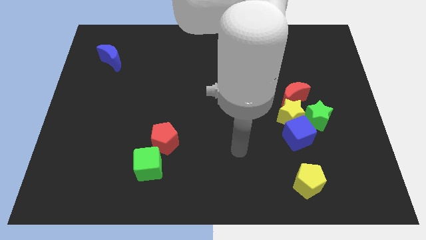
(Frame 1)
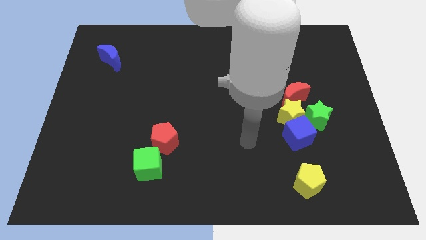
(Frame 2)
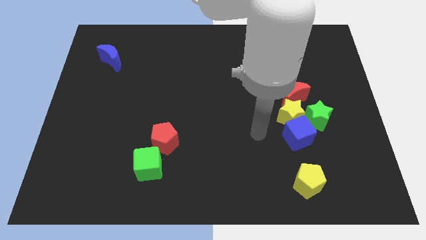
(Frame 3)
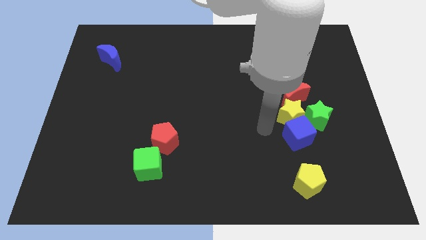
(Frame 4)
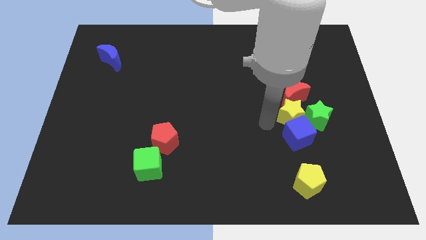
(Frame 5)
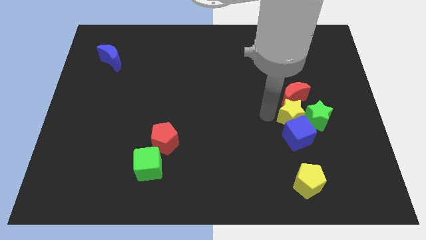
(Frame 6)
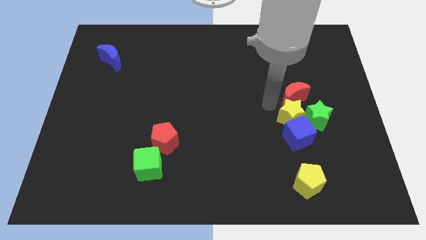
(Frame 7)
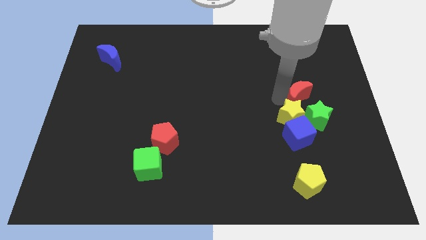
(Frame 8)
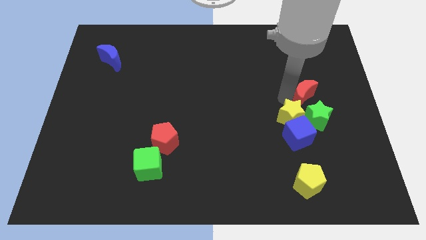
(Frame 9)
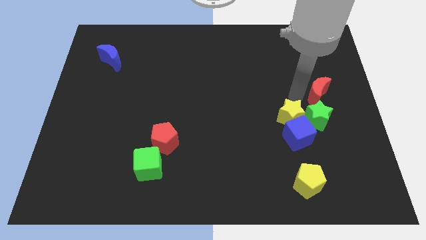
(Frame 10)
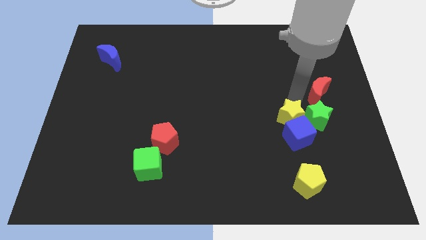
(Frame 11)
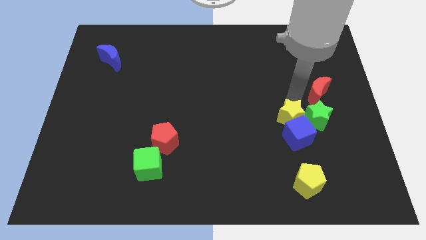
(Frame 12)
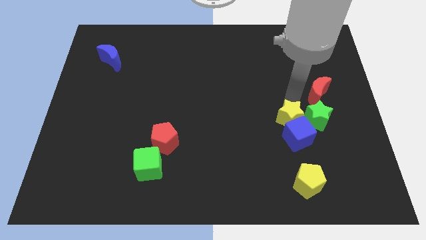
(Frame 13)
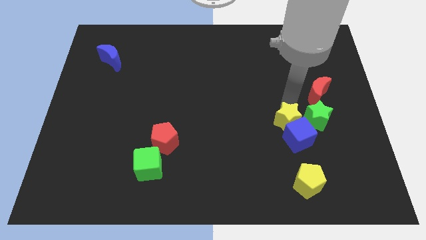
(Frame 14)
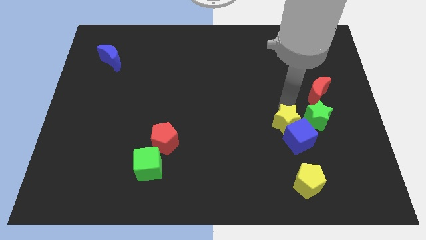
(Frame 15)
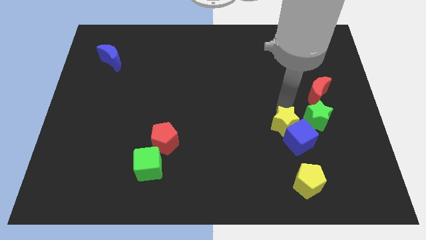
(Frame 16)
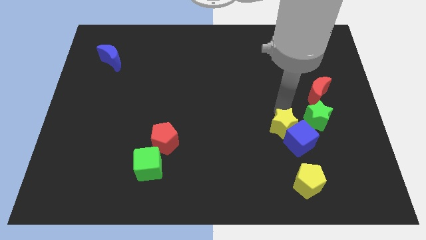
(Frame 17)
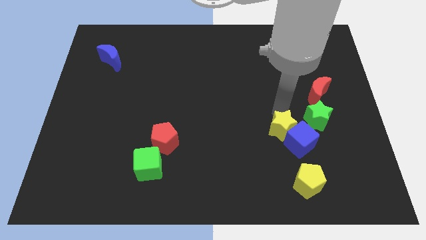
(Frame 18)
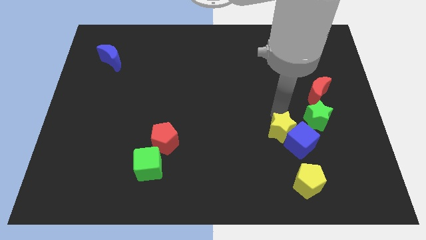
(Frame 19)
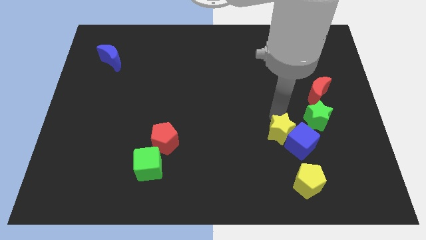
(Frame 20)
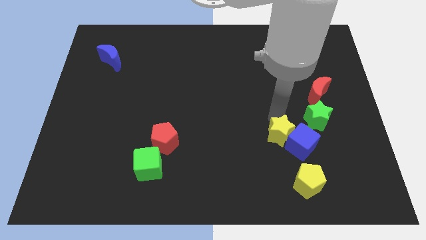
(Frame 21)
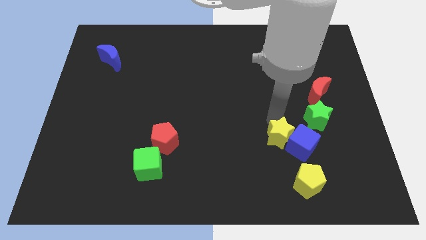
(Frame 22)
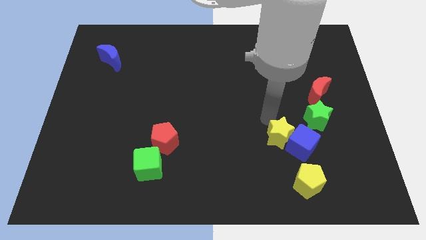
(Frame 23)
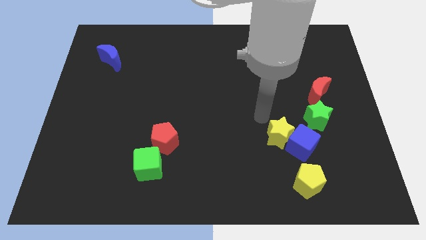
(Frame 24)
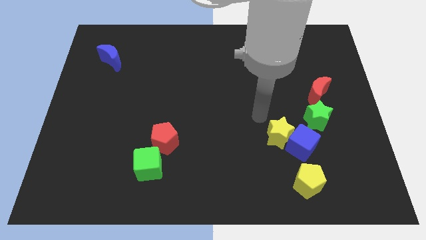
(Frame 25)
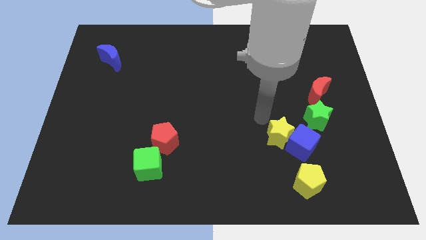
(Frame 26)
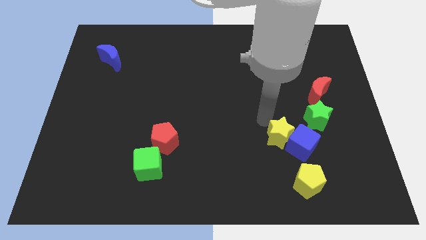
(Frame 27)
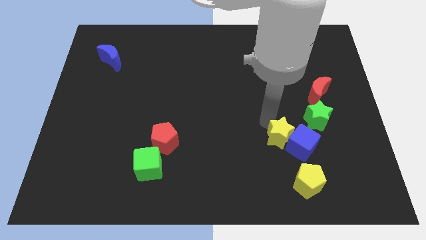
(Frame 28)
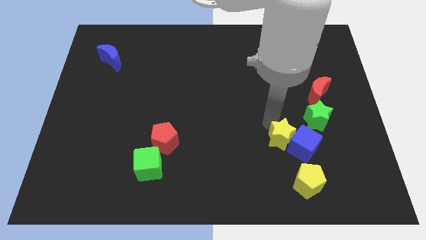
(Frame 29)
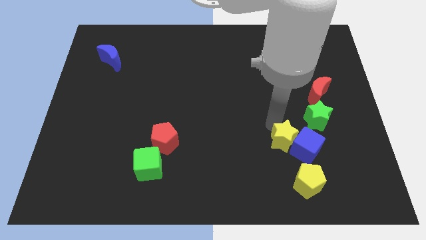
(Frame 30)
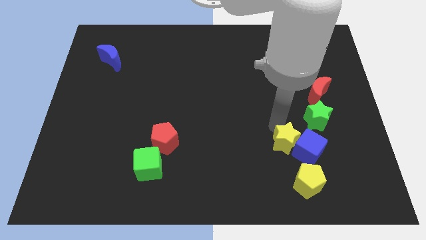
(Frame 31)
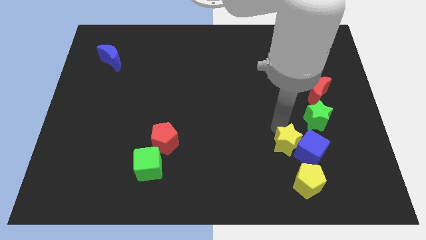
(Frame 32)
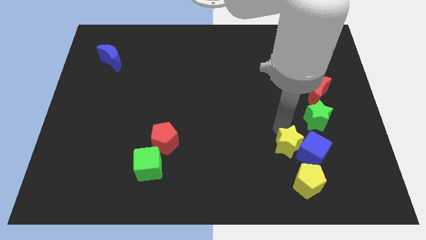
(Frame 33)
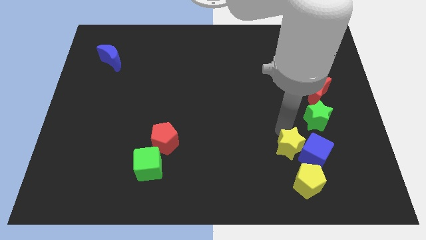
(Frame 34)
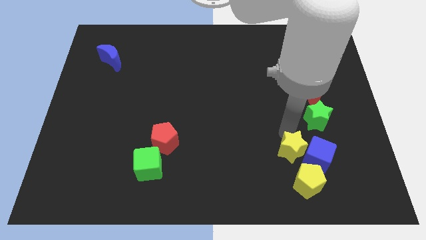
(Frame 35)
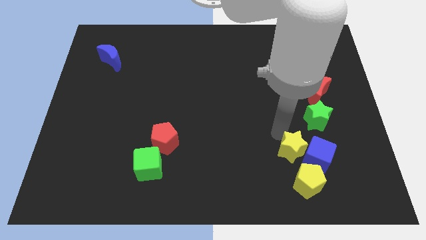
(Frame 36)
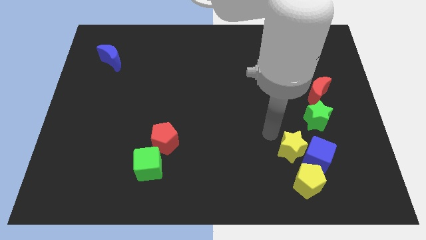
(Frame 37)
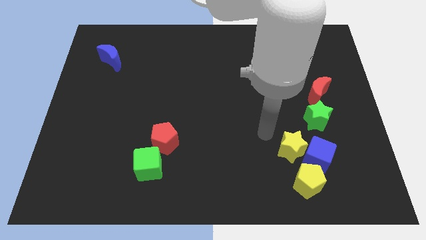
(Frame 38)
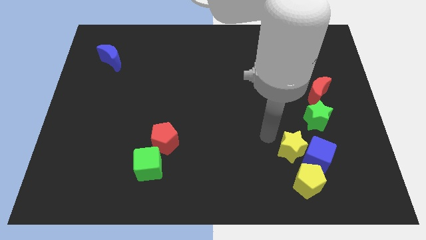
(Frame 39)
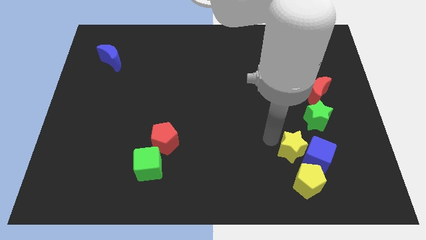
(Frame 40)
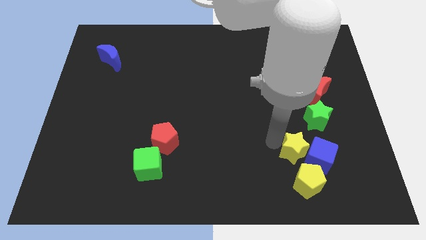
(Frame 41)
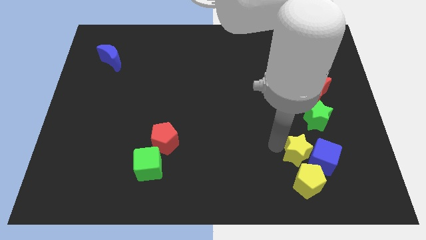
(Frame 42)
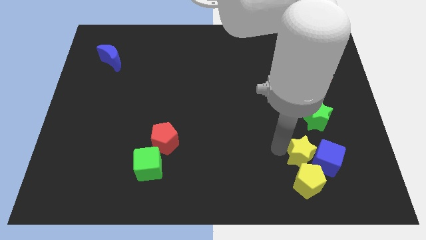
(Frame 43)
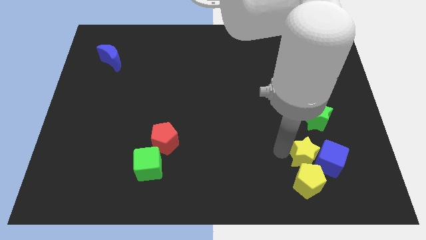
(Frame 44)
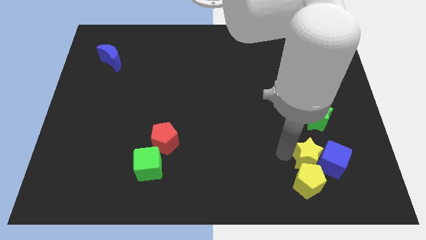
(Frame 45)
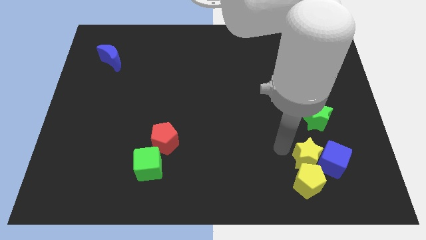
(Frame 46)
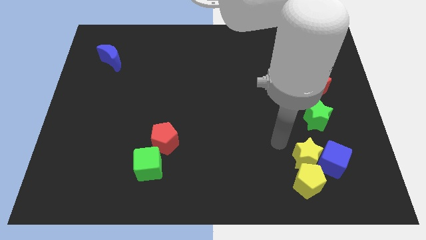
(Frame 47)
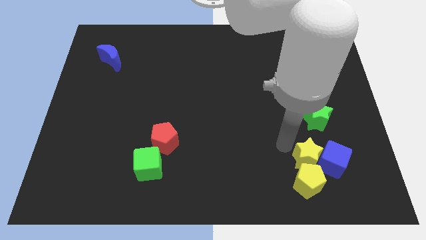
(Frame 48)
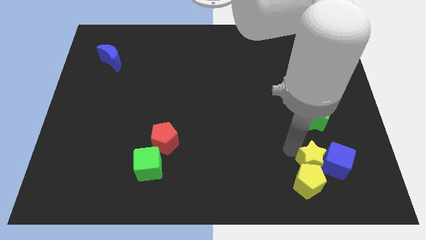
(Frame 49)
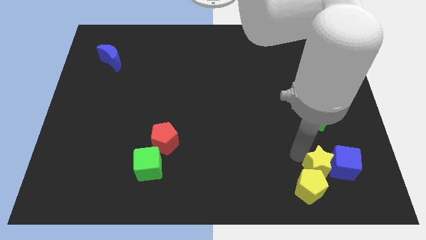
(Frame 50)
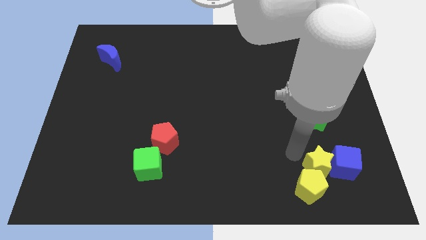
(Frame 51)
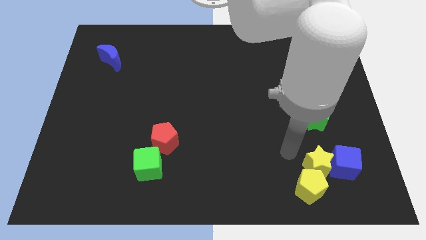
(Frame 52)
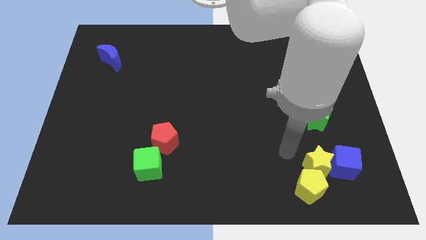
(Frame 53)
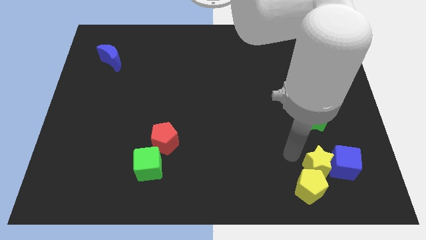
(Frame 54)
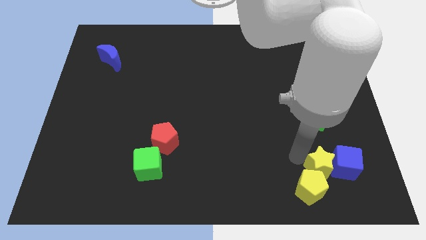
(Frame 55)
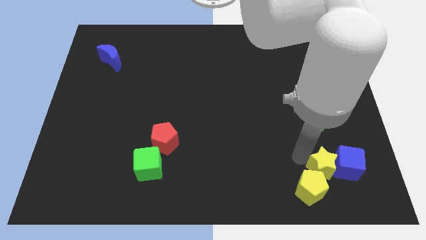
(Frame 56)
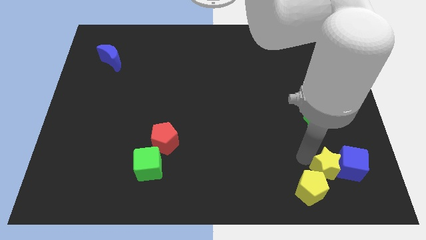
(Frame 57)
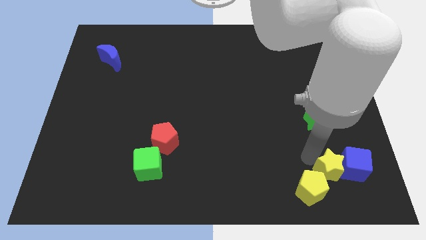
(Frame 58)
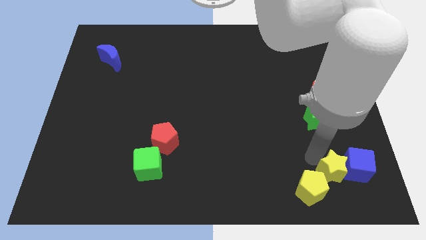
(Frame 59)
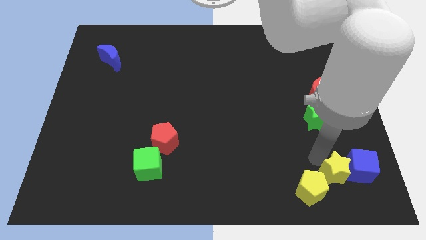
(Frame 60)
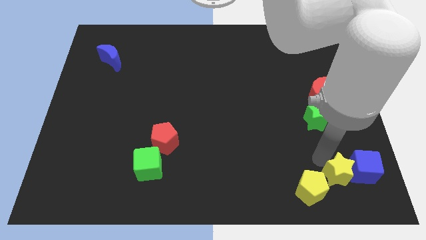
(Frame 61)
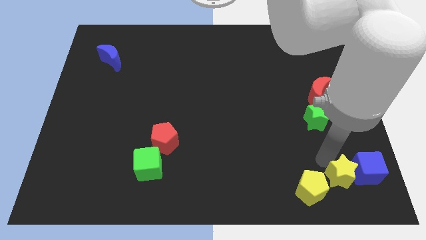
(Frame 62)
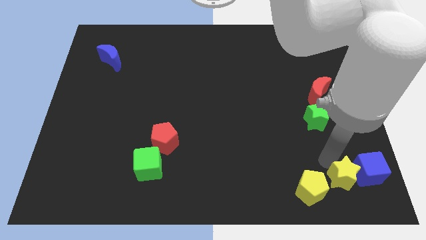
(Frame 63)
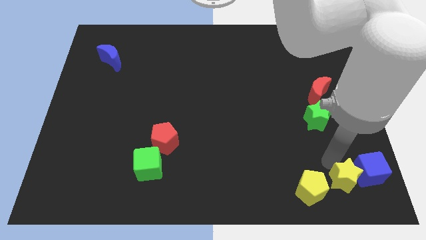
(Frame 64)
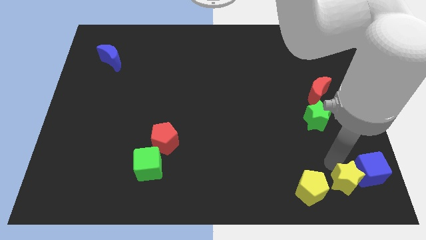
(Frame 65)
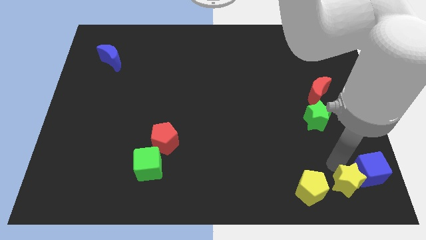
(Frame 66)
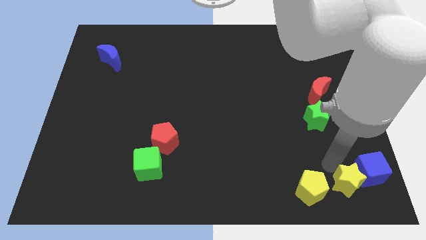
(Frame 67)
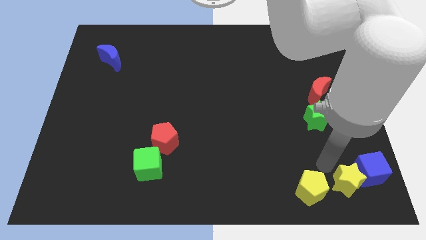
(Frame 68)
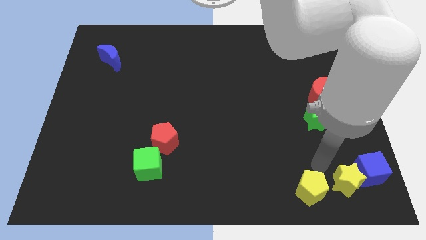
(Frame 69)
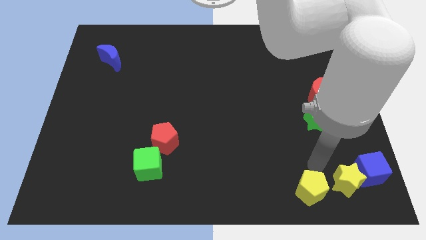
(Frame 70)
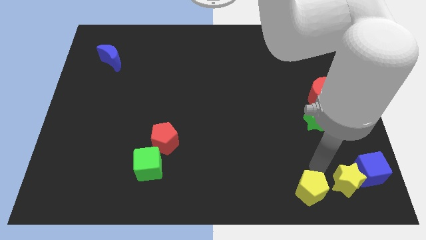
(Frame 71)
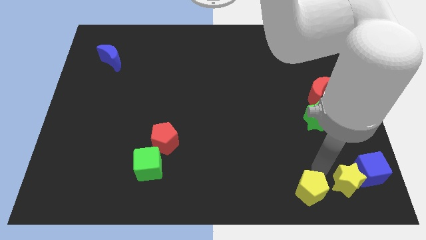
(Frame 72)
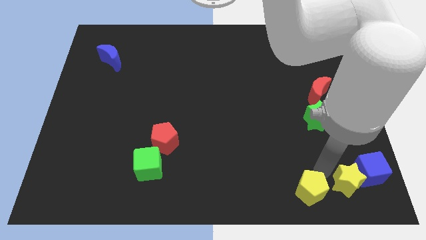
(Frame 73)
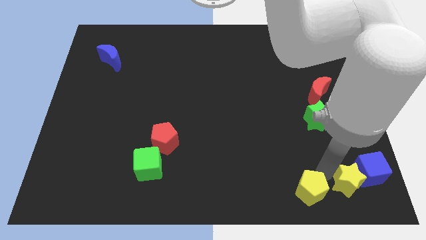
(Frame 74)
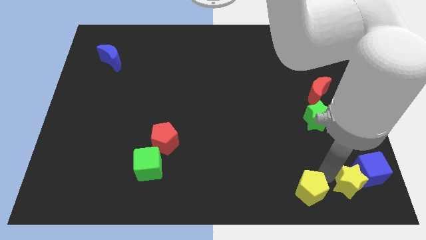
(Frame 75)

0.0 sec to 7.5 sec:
put the yellow star to the bottom right
